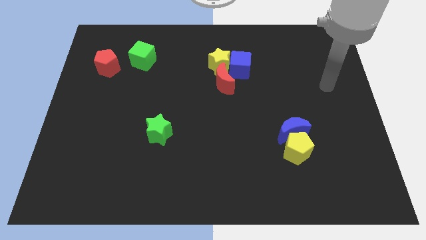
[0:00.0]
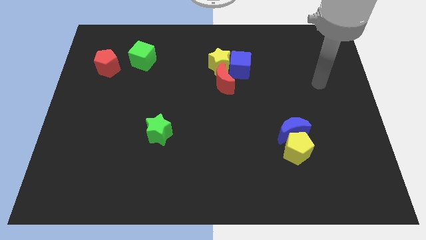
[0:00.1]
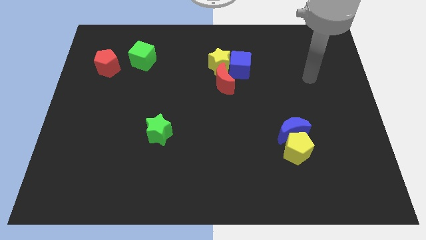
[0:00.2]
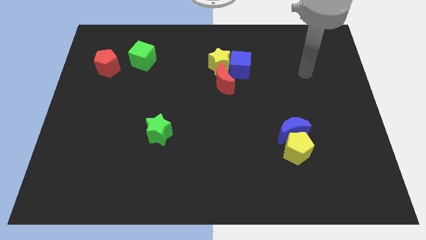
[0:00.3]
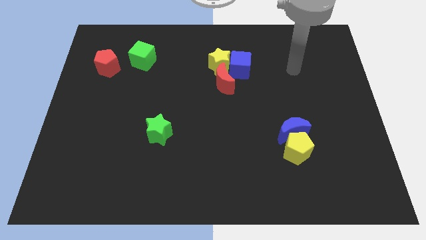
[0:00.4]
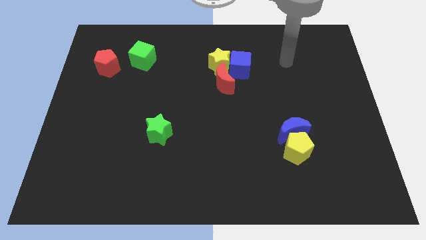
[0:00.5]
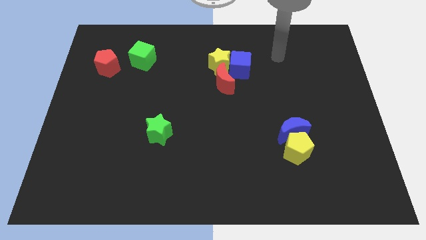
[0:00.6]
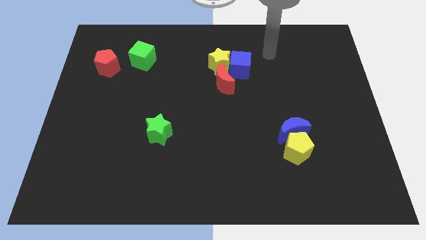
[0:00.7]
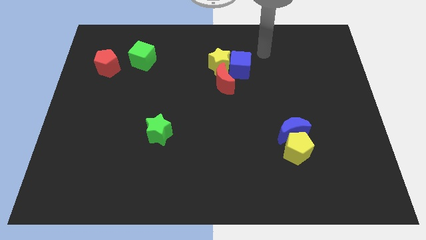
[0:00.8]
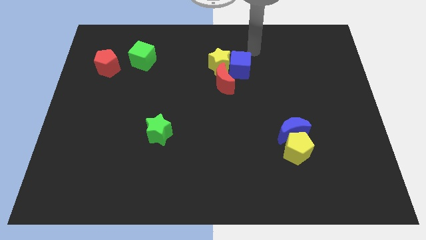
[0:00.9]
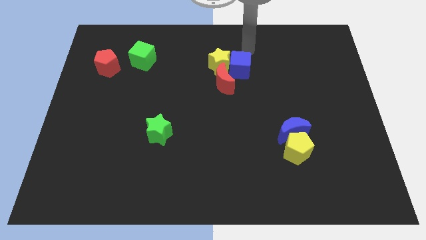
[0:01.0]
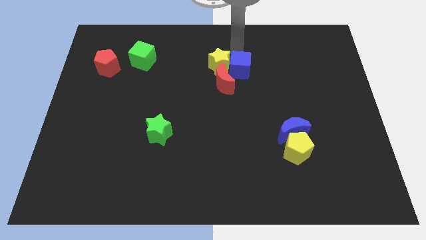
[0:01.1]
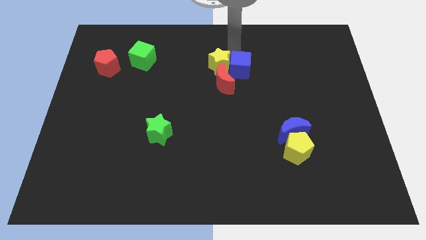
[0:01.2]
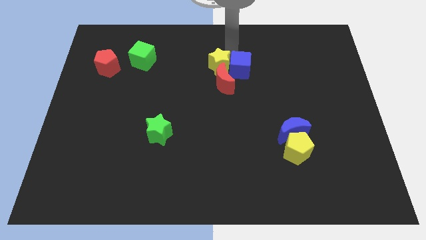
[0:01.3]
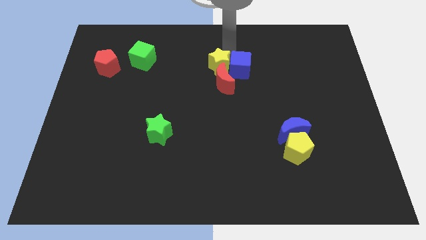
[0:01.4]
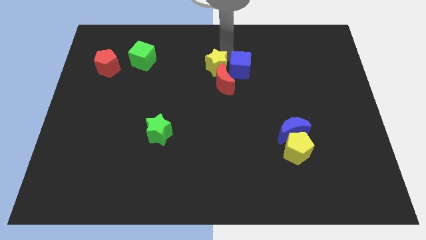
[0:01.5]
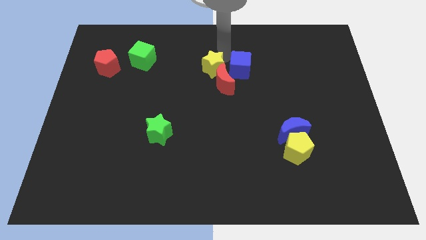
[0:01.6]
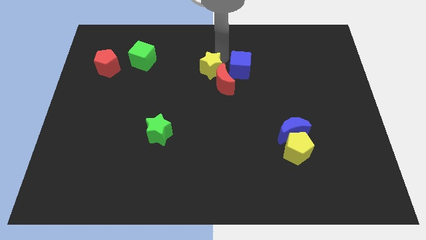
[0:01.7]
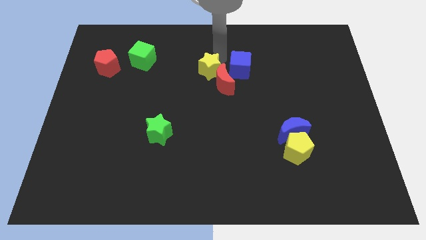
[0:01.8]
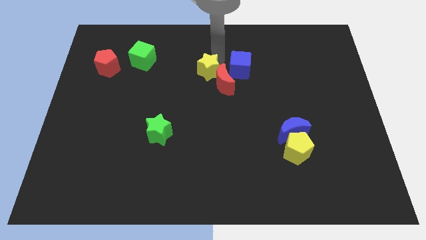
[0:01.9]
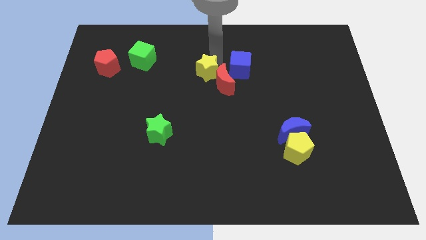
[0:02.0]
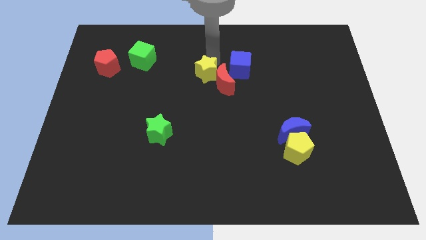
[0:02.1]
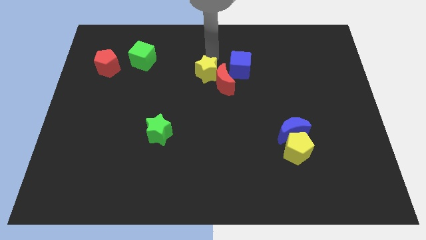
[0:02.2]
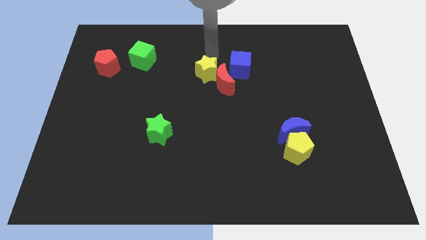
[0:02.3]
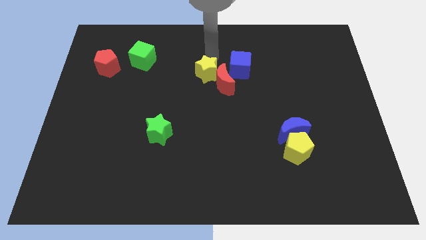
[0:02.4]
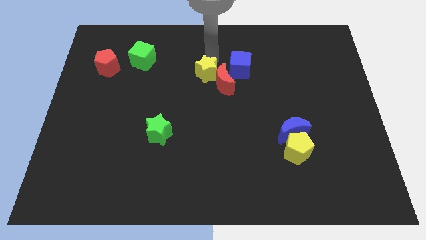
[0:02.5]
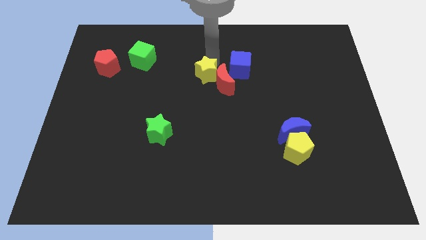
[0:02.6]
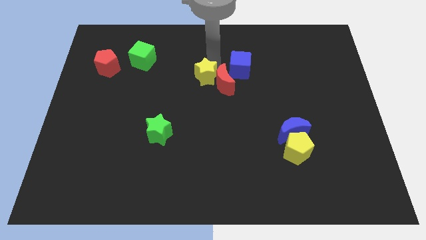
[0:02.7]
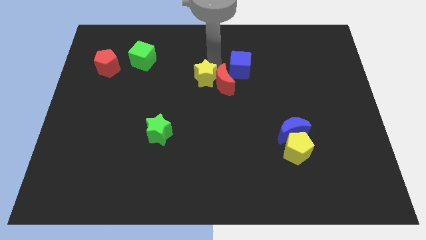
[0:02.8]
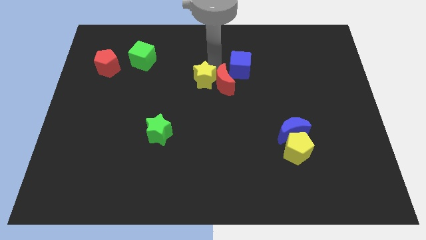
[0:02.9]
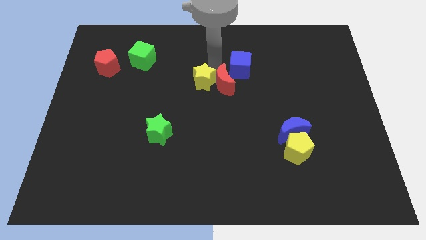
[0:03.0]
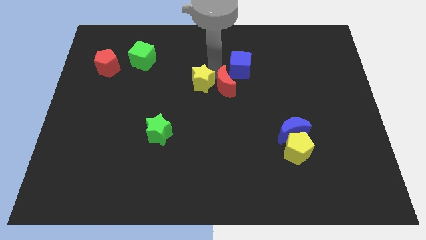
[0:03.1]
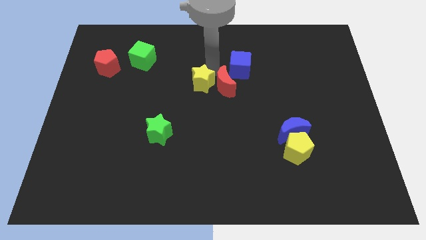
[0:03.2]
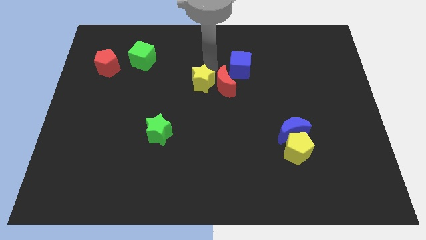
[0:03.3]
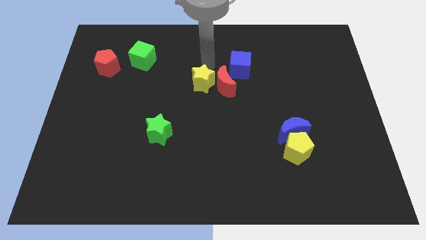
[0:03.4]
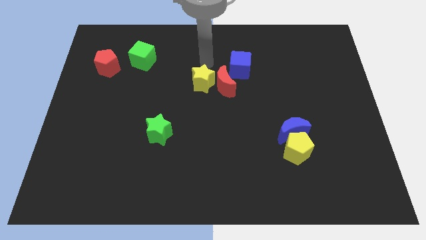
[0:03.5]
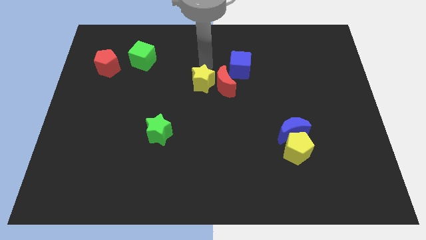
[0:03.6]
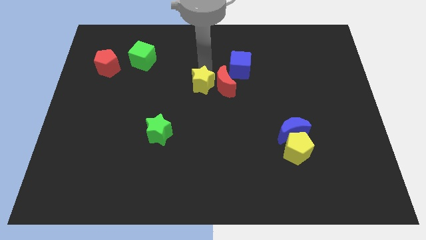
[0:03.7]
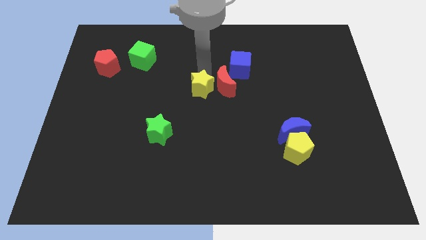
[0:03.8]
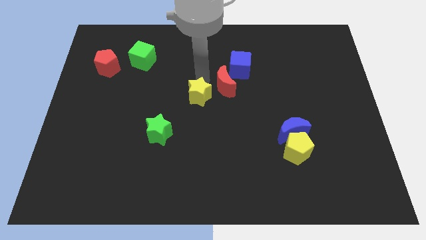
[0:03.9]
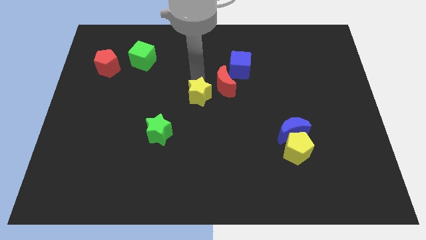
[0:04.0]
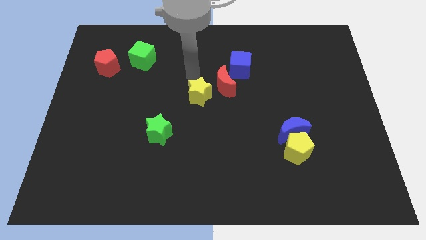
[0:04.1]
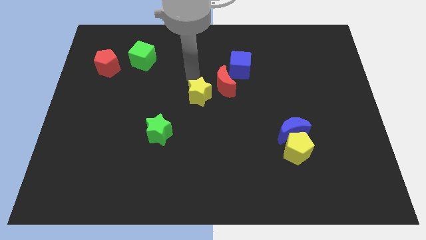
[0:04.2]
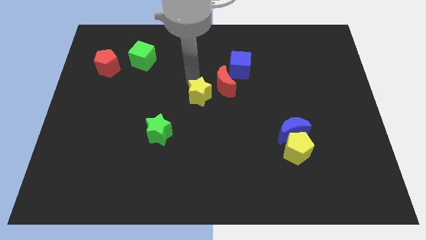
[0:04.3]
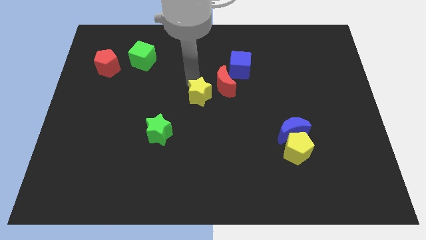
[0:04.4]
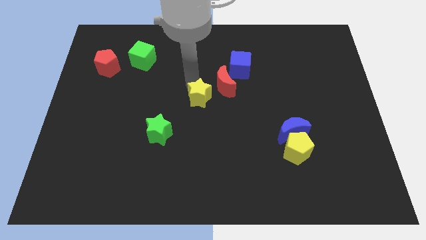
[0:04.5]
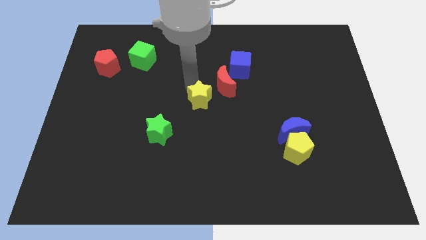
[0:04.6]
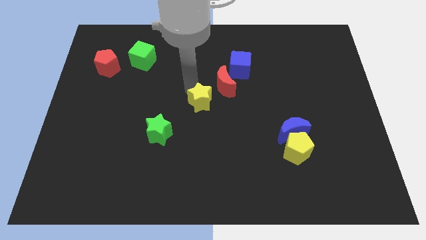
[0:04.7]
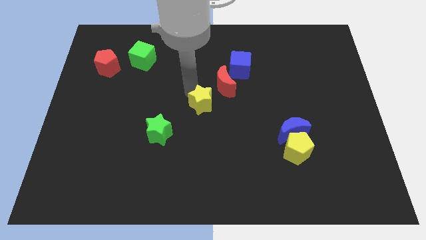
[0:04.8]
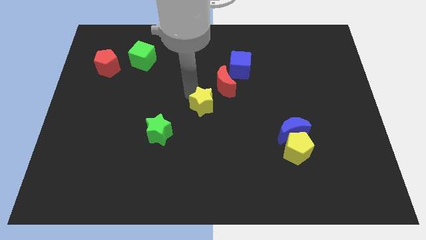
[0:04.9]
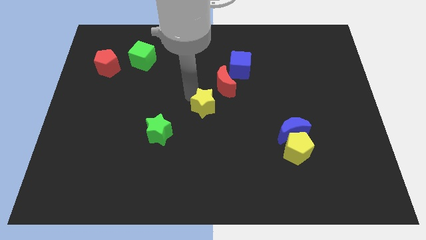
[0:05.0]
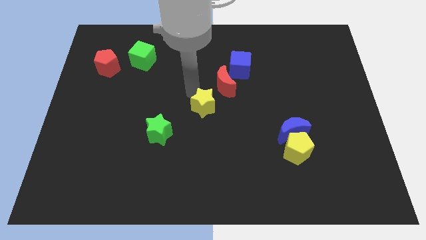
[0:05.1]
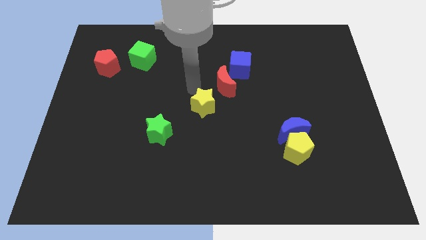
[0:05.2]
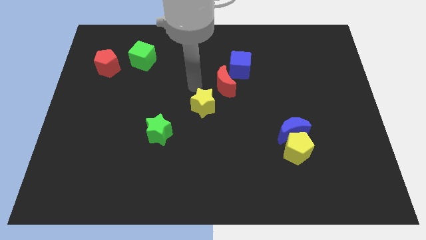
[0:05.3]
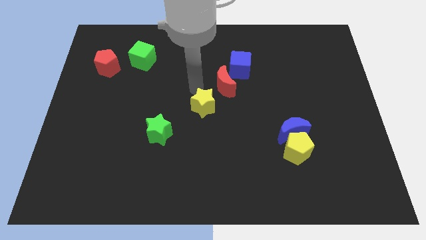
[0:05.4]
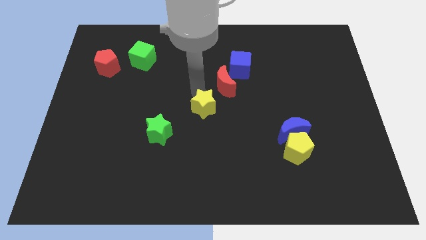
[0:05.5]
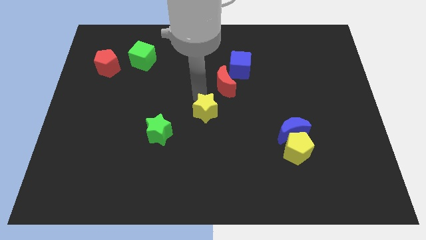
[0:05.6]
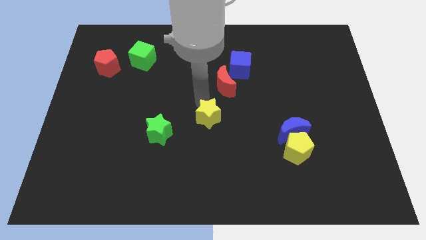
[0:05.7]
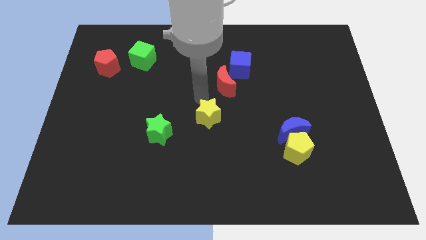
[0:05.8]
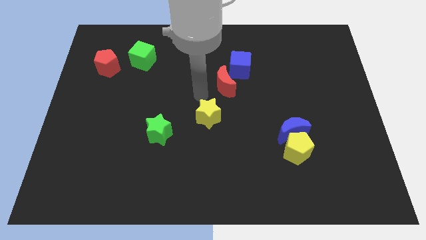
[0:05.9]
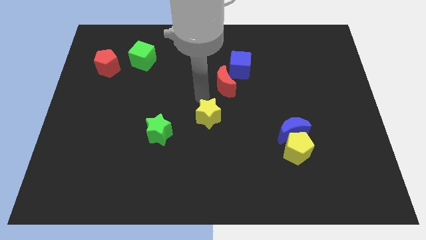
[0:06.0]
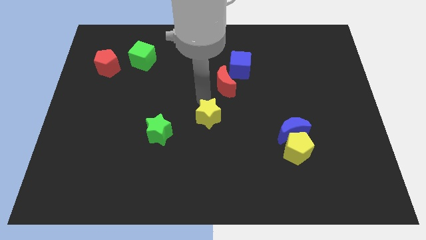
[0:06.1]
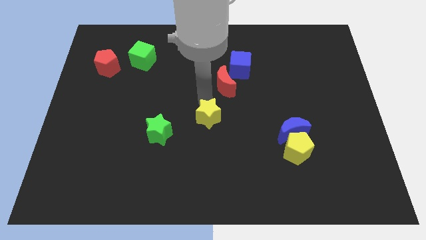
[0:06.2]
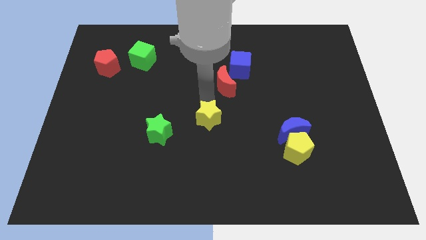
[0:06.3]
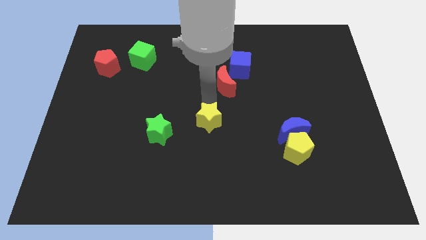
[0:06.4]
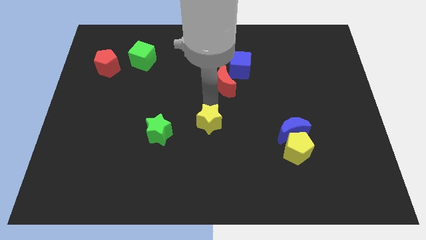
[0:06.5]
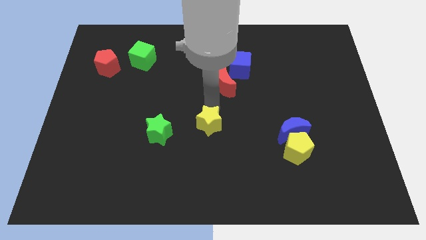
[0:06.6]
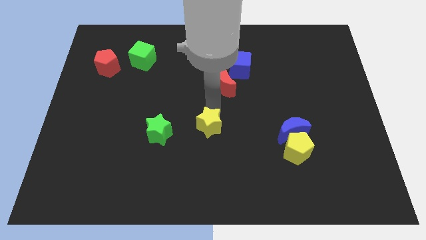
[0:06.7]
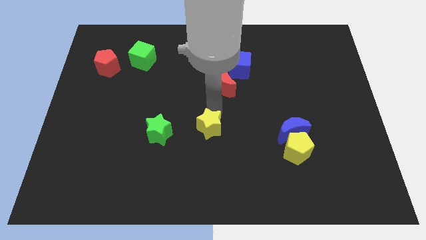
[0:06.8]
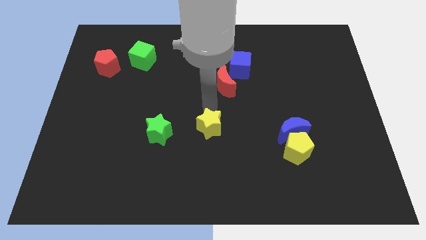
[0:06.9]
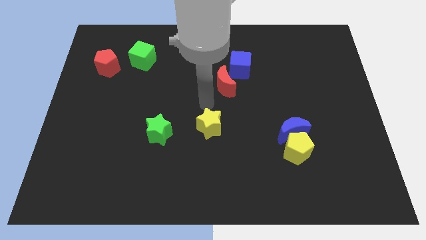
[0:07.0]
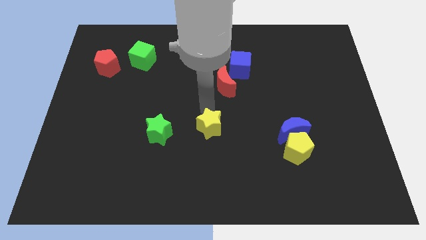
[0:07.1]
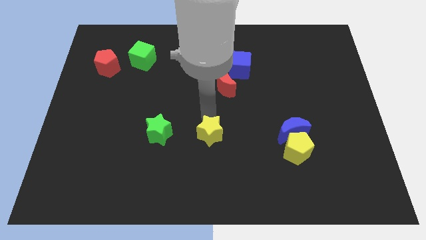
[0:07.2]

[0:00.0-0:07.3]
move the yellow star down

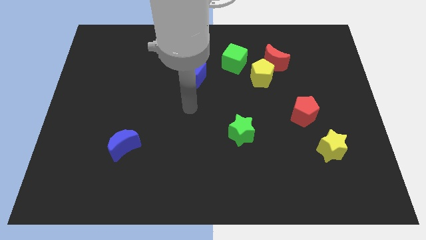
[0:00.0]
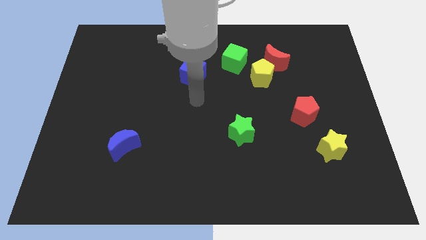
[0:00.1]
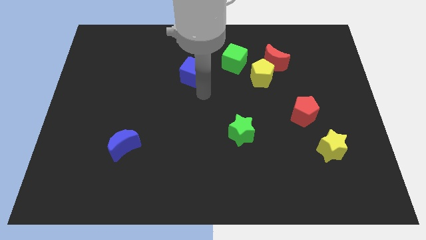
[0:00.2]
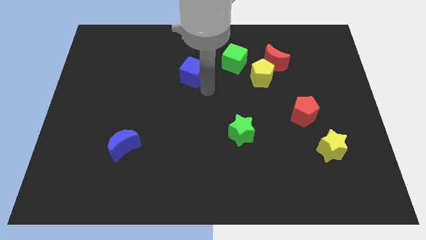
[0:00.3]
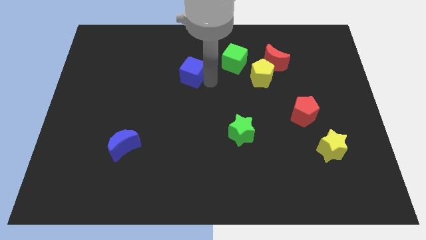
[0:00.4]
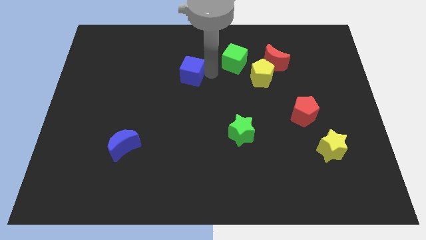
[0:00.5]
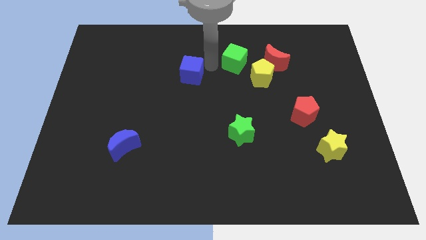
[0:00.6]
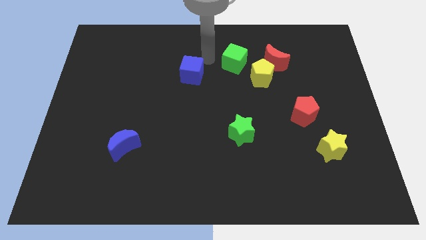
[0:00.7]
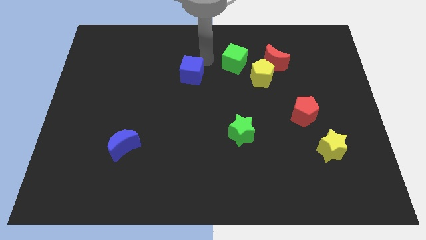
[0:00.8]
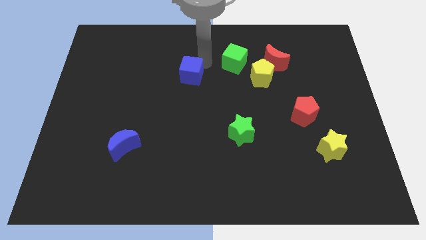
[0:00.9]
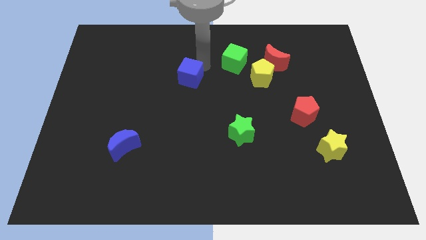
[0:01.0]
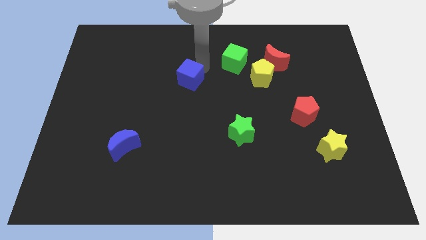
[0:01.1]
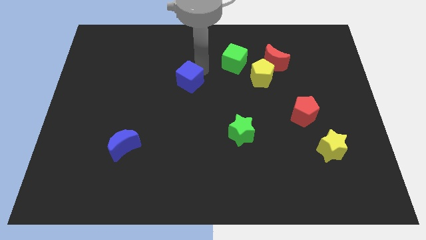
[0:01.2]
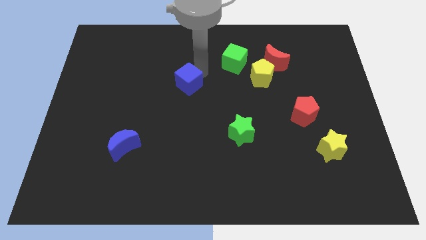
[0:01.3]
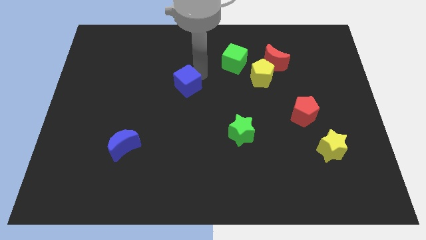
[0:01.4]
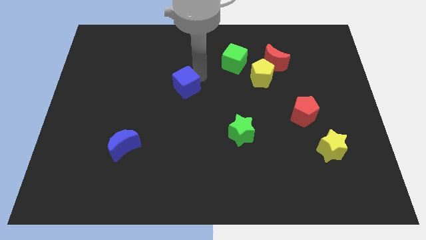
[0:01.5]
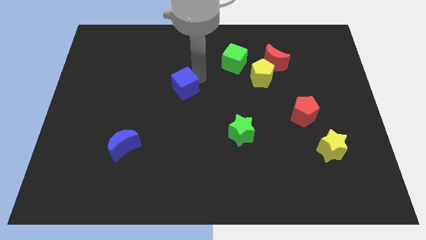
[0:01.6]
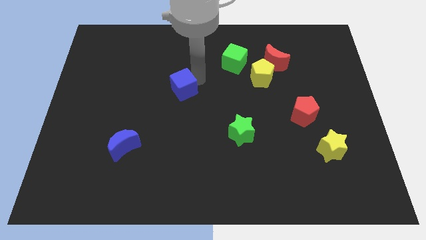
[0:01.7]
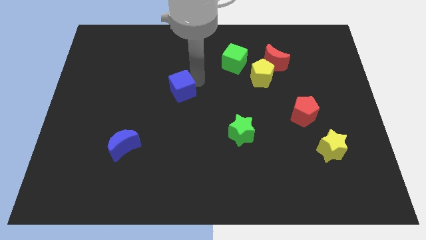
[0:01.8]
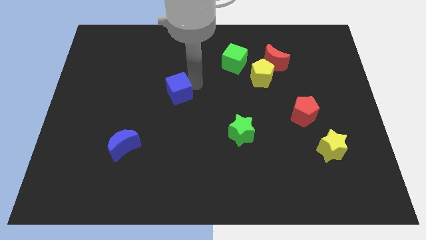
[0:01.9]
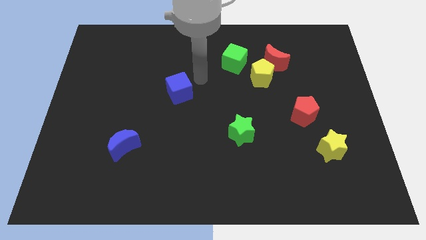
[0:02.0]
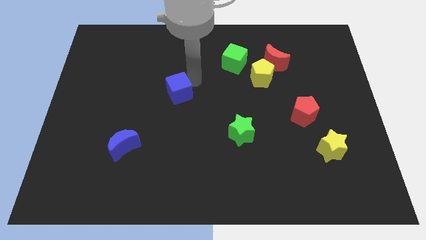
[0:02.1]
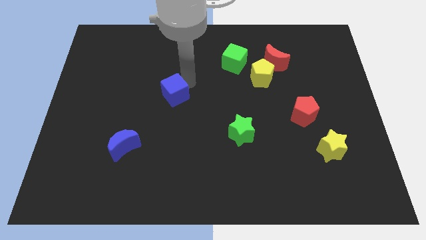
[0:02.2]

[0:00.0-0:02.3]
slide the blue cube a bit down and to the left
